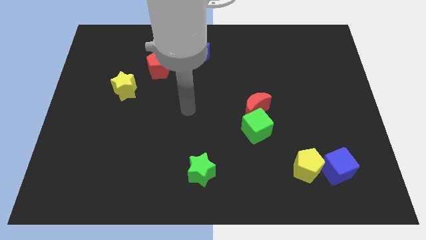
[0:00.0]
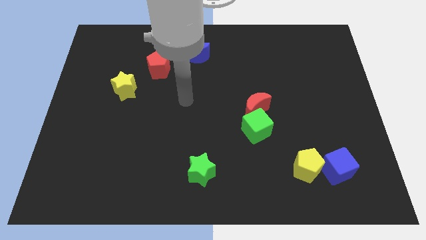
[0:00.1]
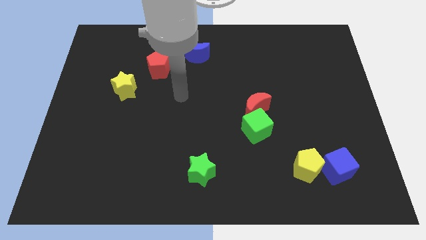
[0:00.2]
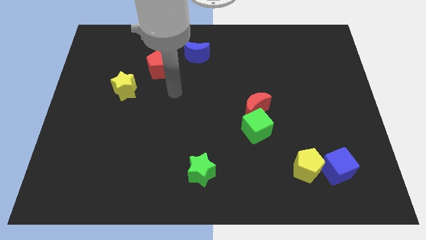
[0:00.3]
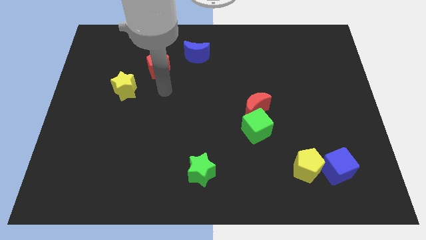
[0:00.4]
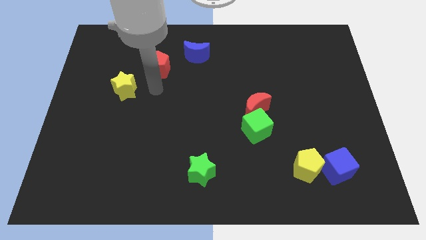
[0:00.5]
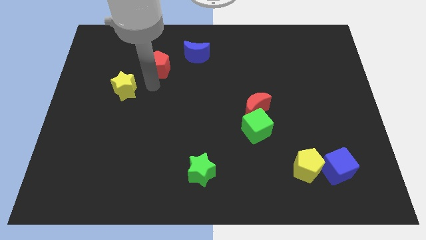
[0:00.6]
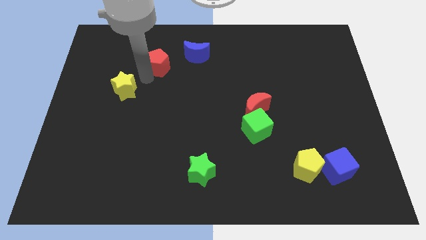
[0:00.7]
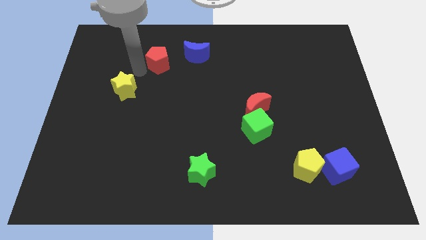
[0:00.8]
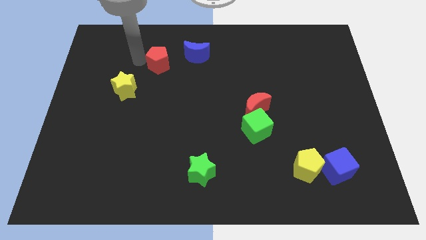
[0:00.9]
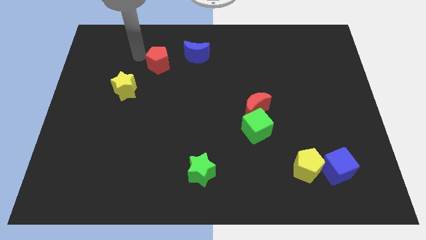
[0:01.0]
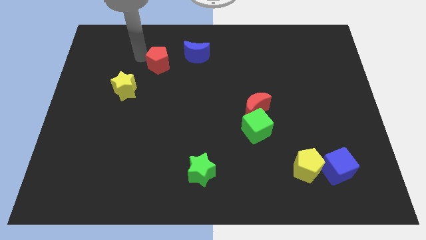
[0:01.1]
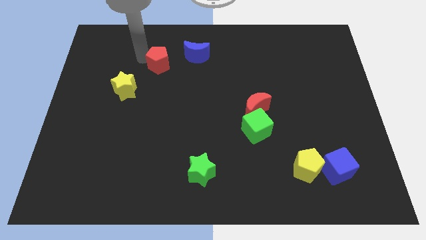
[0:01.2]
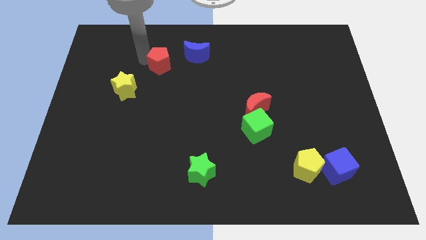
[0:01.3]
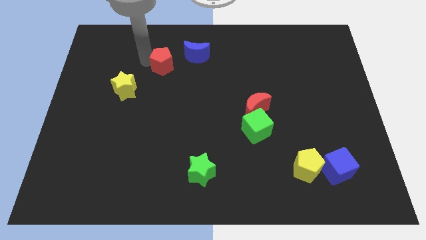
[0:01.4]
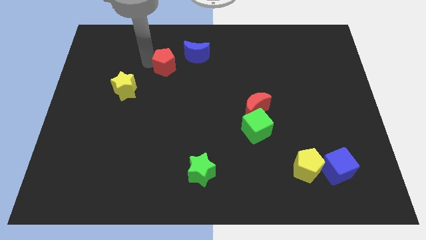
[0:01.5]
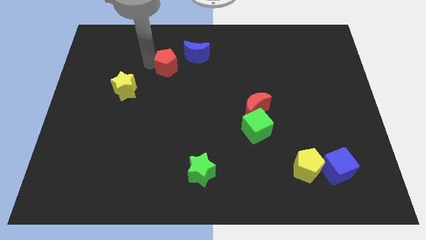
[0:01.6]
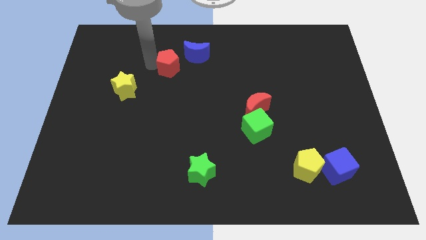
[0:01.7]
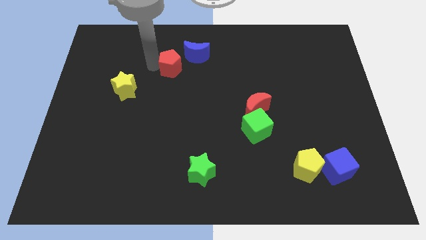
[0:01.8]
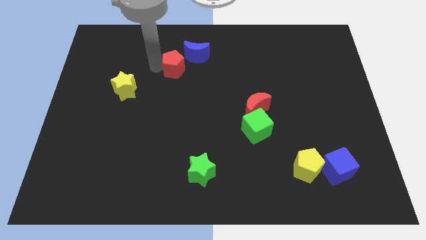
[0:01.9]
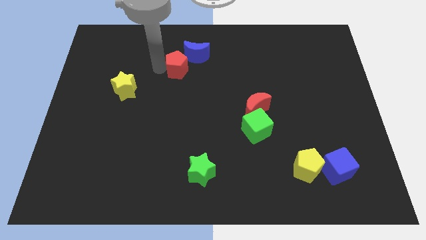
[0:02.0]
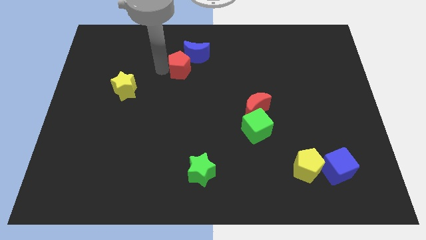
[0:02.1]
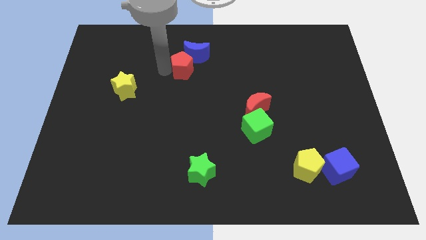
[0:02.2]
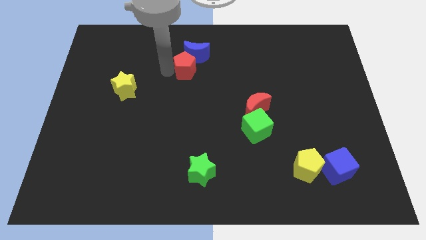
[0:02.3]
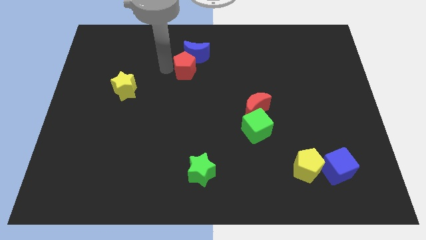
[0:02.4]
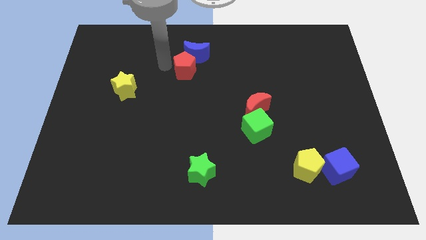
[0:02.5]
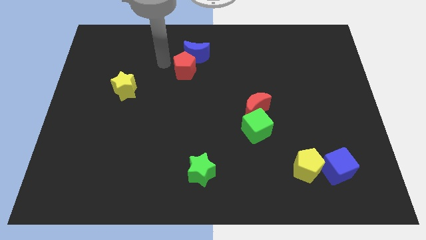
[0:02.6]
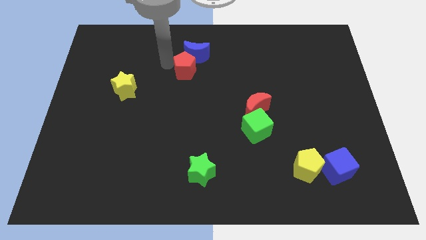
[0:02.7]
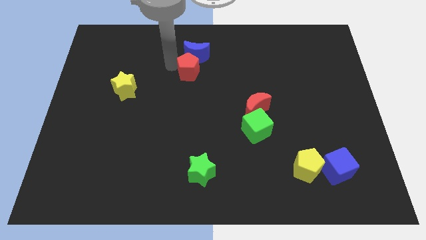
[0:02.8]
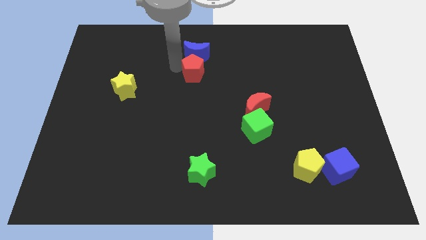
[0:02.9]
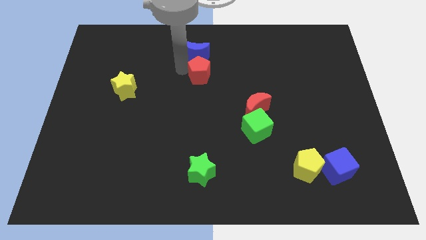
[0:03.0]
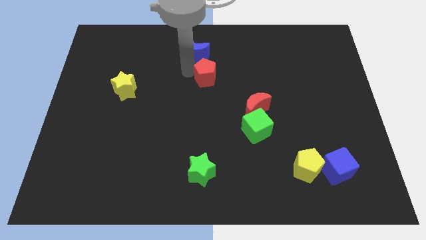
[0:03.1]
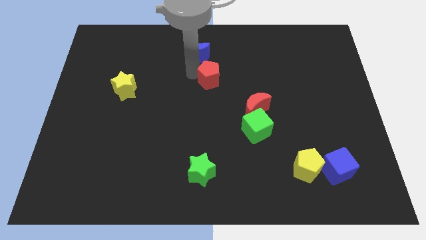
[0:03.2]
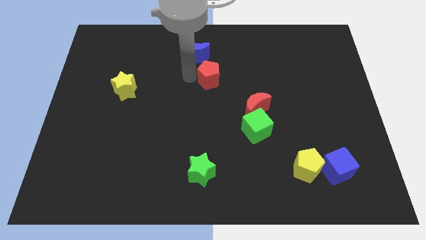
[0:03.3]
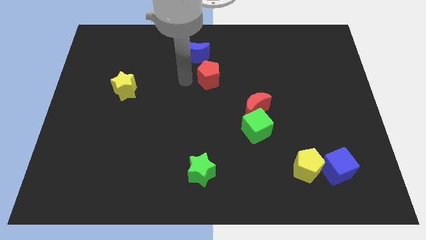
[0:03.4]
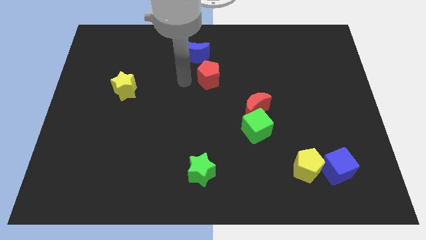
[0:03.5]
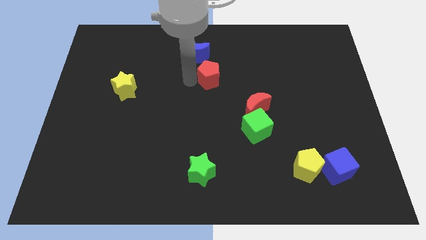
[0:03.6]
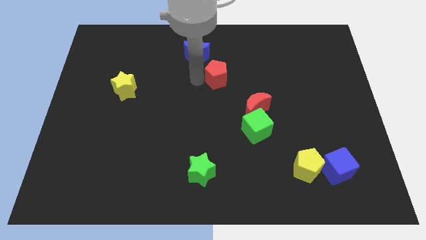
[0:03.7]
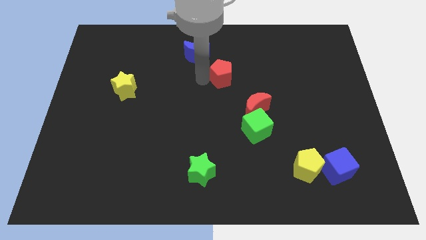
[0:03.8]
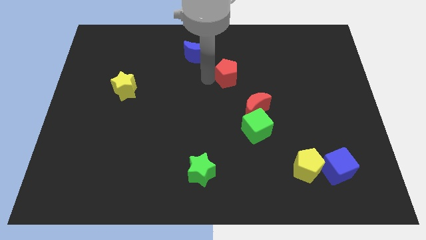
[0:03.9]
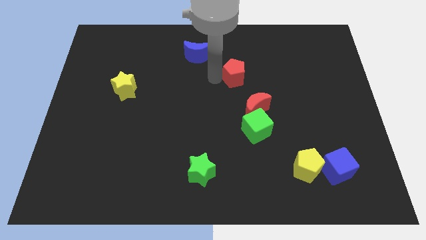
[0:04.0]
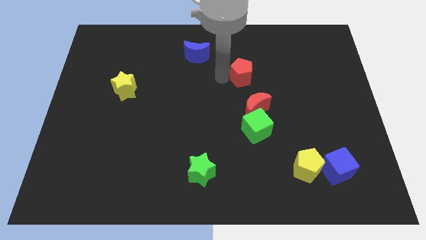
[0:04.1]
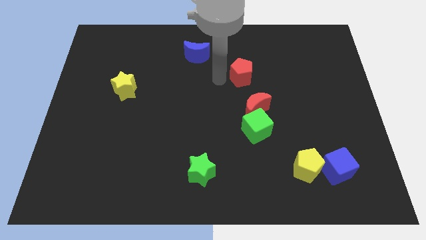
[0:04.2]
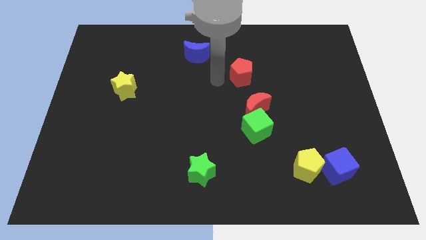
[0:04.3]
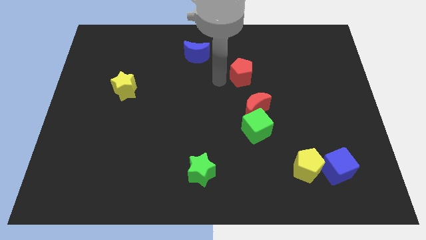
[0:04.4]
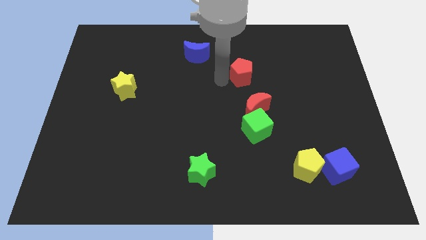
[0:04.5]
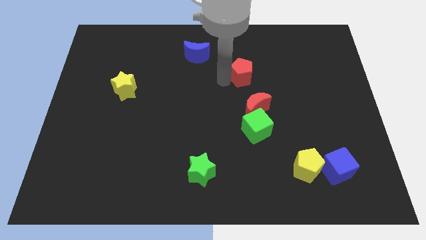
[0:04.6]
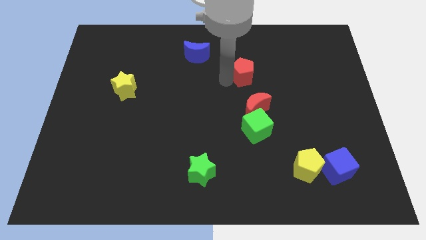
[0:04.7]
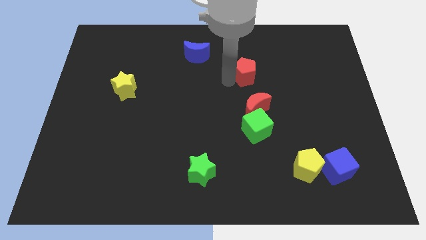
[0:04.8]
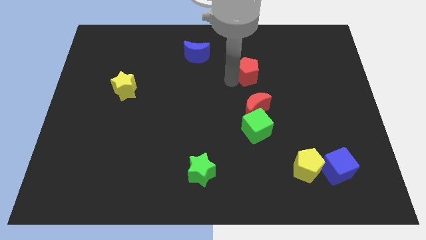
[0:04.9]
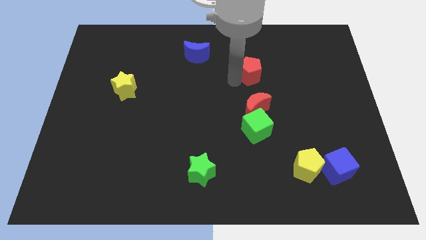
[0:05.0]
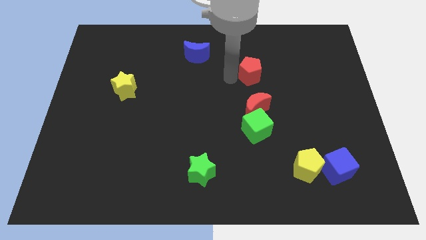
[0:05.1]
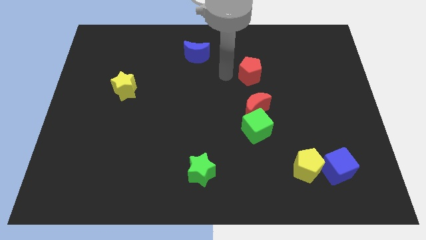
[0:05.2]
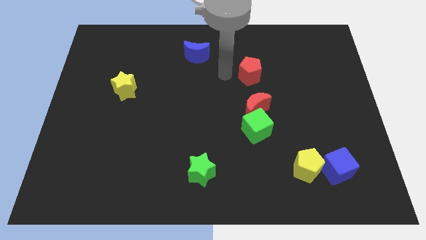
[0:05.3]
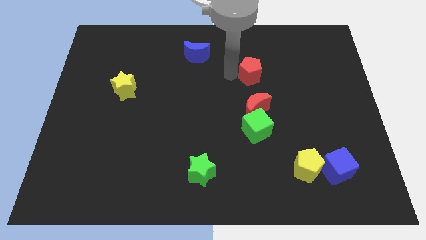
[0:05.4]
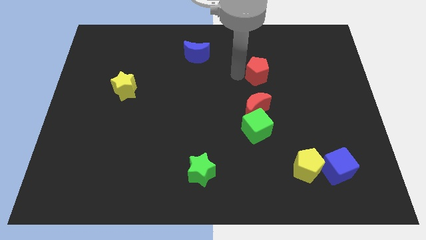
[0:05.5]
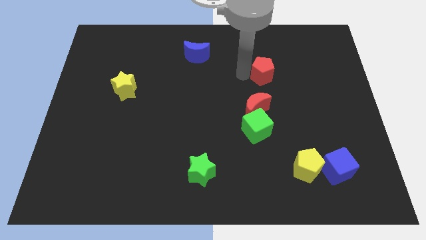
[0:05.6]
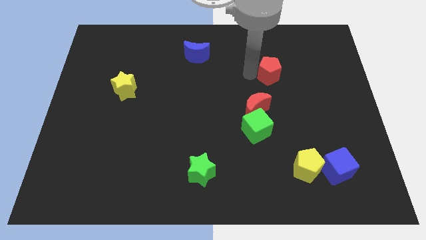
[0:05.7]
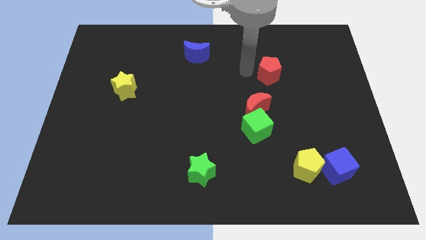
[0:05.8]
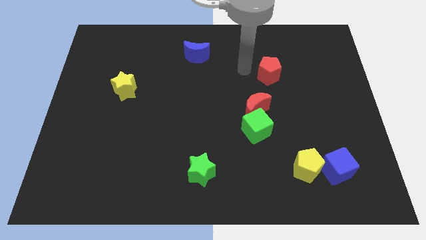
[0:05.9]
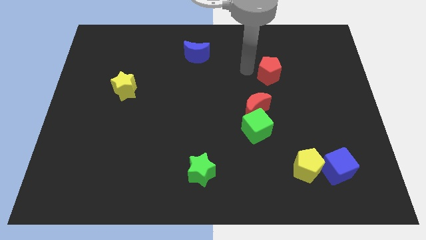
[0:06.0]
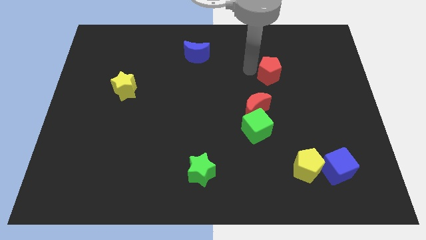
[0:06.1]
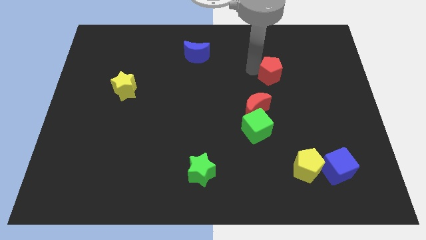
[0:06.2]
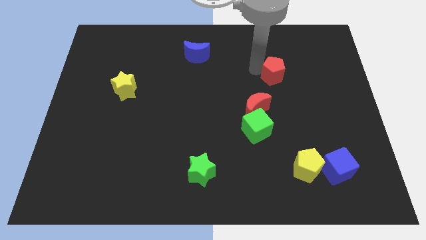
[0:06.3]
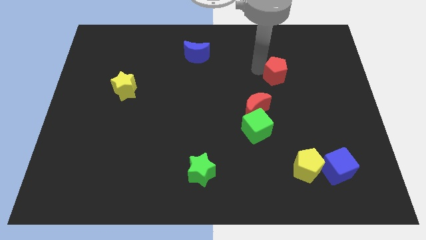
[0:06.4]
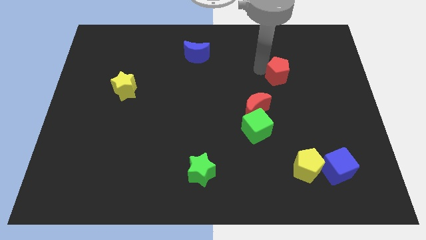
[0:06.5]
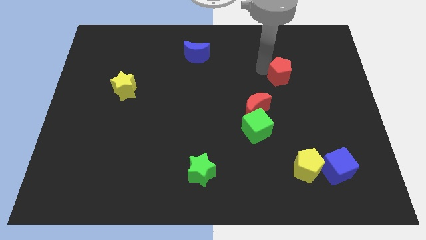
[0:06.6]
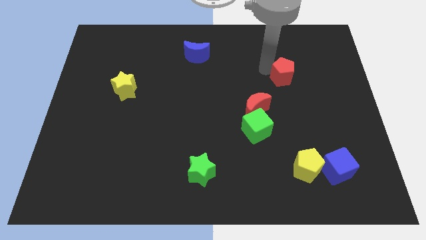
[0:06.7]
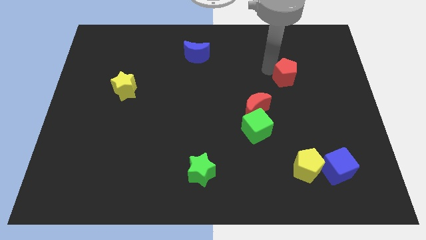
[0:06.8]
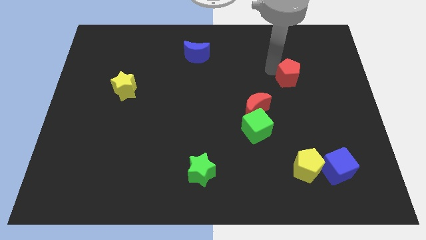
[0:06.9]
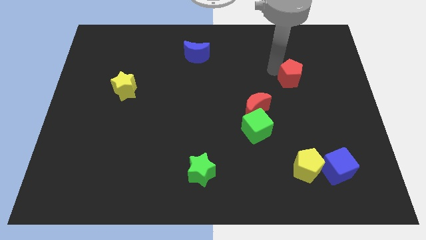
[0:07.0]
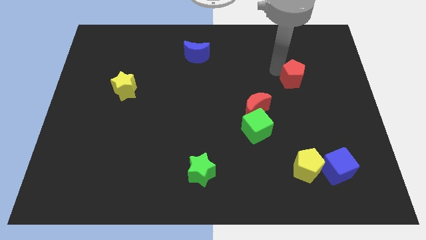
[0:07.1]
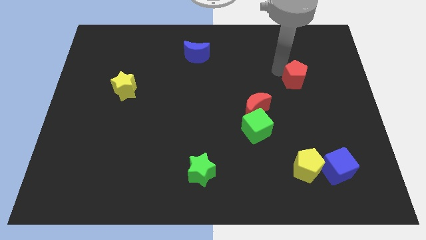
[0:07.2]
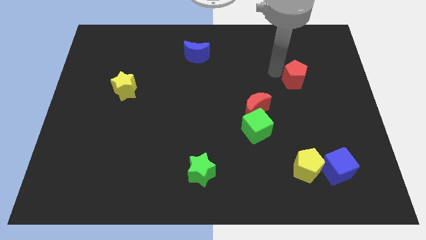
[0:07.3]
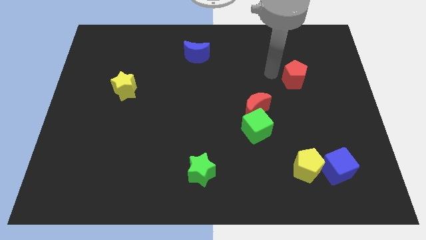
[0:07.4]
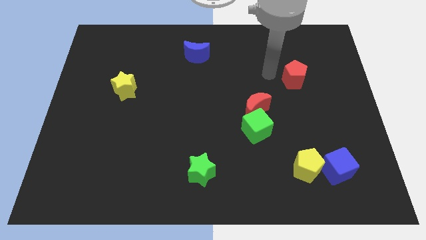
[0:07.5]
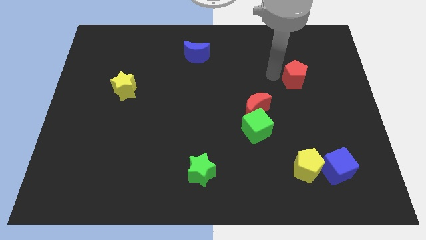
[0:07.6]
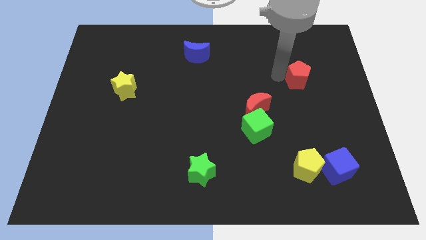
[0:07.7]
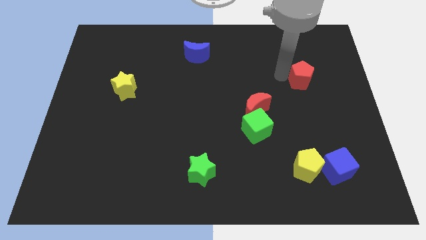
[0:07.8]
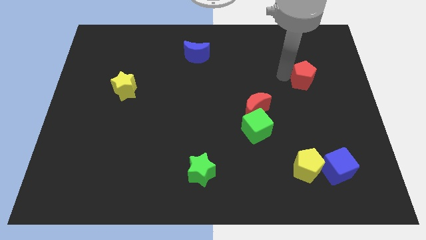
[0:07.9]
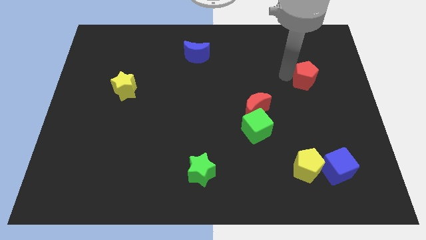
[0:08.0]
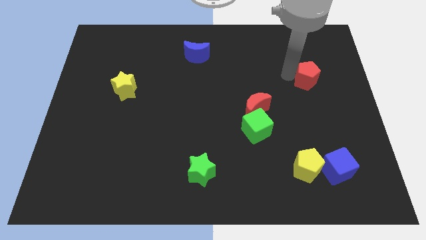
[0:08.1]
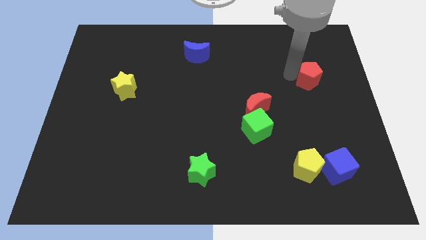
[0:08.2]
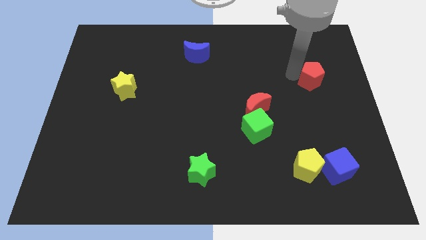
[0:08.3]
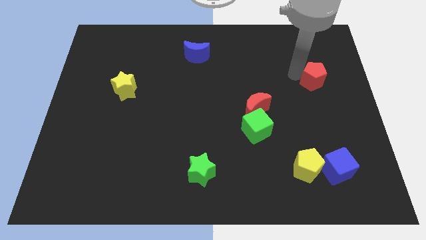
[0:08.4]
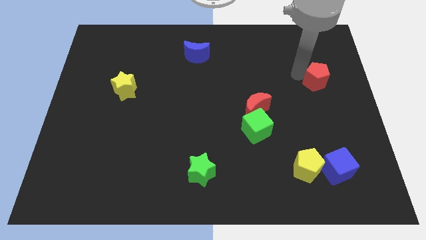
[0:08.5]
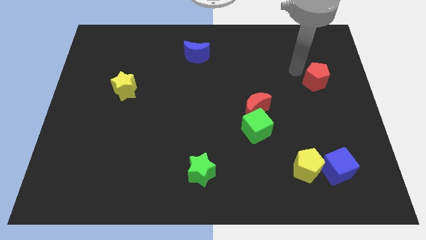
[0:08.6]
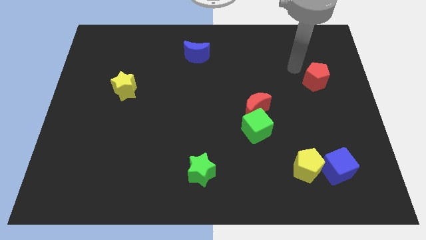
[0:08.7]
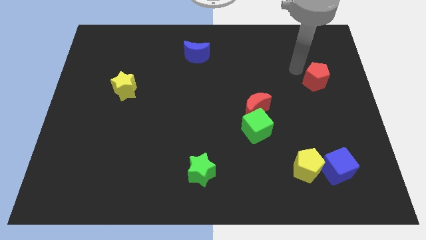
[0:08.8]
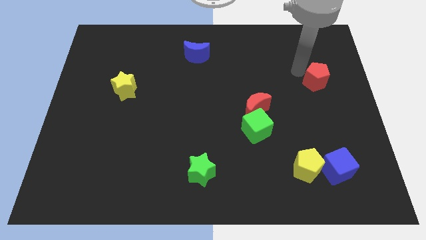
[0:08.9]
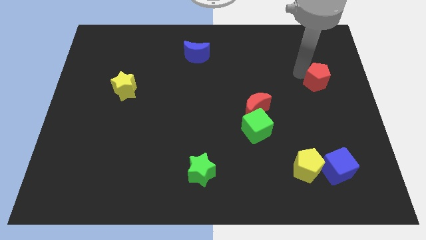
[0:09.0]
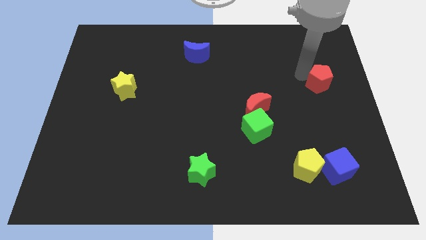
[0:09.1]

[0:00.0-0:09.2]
move the red pentagon to the right side of the board
